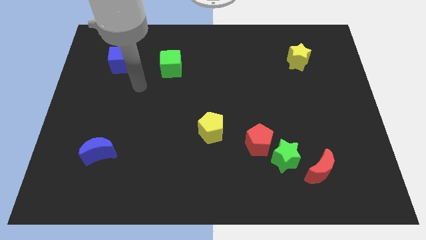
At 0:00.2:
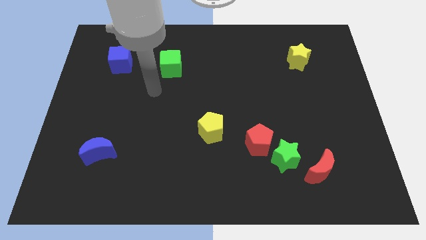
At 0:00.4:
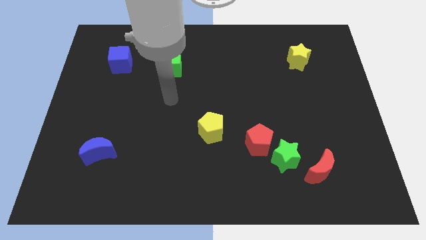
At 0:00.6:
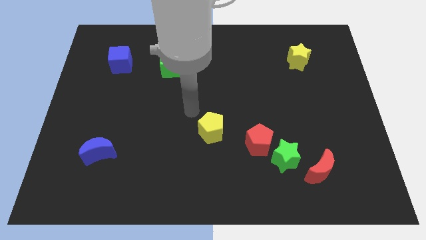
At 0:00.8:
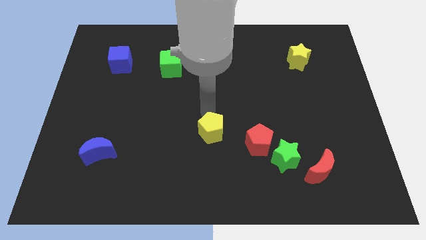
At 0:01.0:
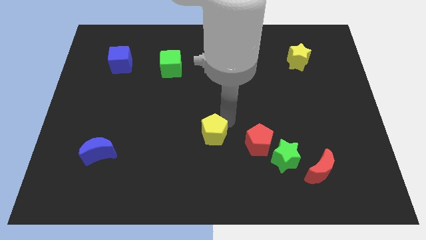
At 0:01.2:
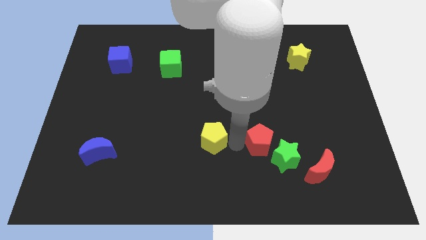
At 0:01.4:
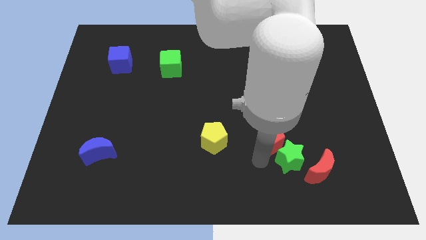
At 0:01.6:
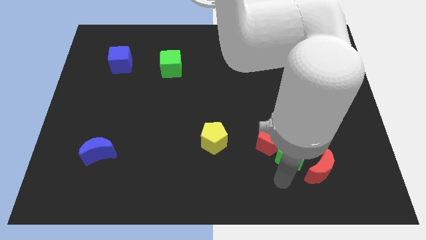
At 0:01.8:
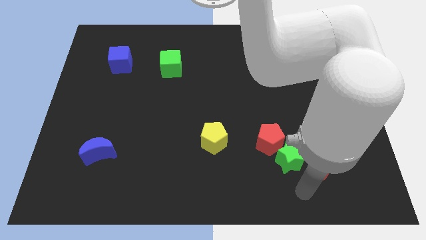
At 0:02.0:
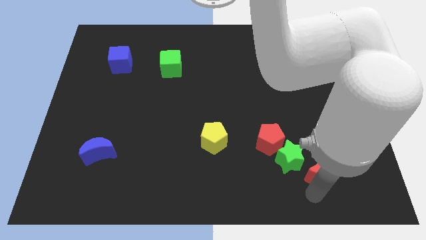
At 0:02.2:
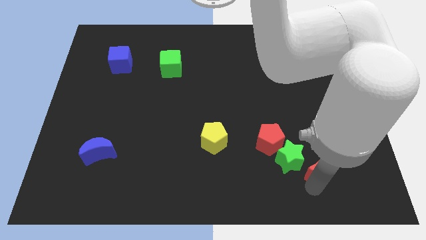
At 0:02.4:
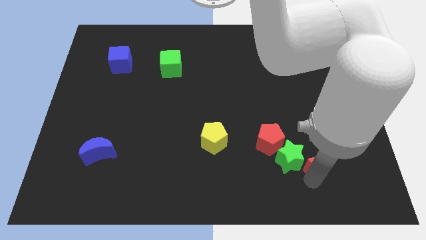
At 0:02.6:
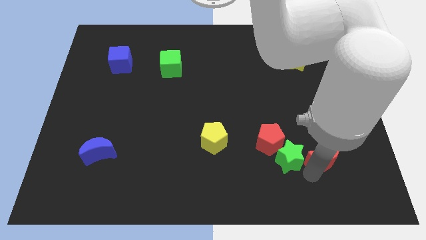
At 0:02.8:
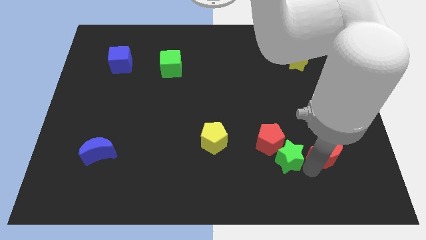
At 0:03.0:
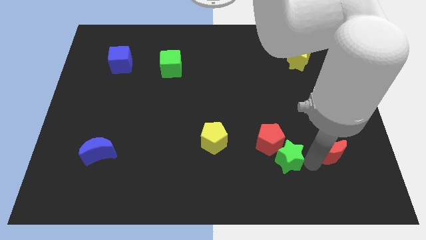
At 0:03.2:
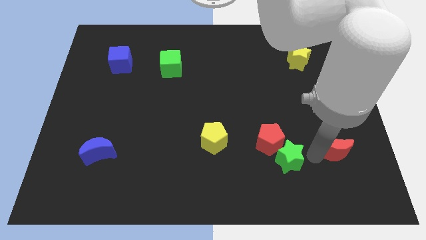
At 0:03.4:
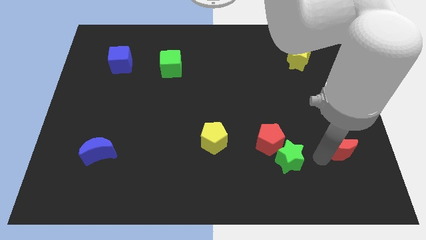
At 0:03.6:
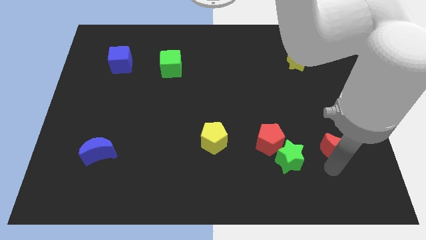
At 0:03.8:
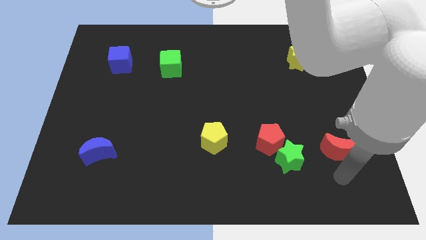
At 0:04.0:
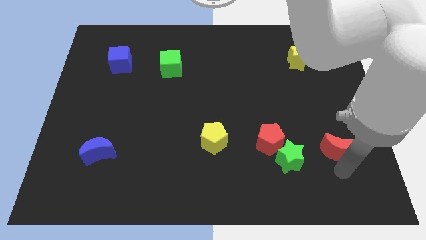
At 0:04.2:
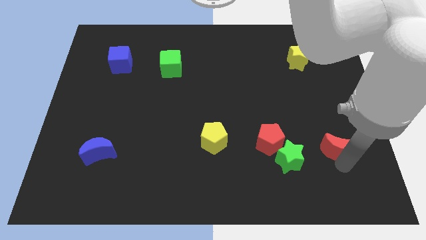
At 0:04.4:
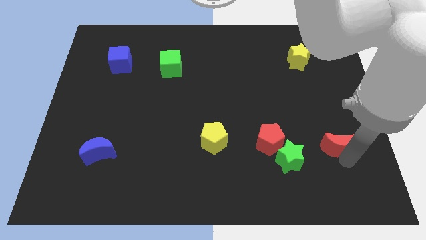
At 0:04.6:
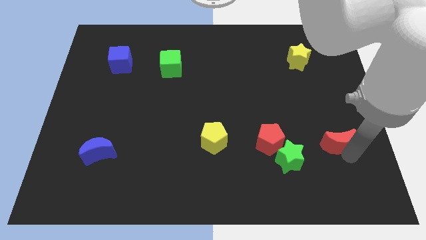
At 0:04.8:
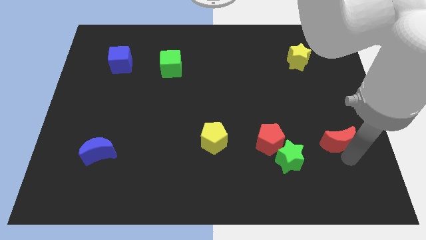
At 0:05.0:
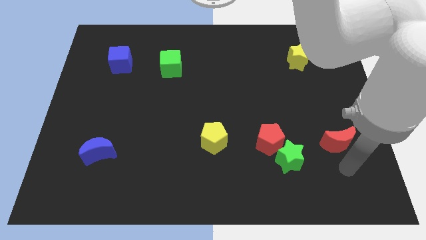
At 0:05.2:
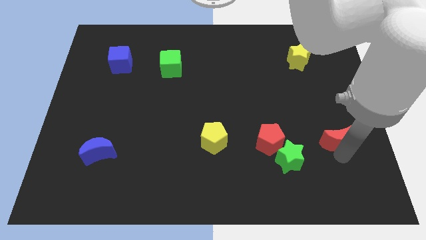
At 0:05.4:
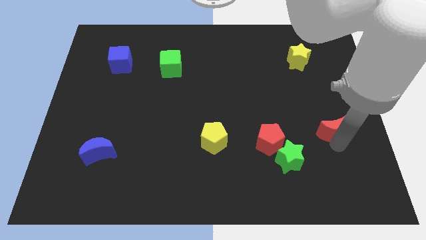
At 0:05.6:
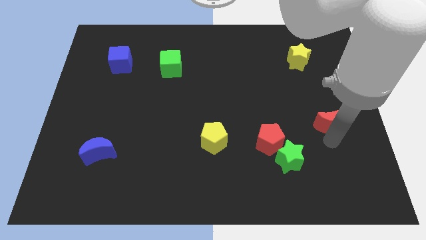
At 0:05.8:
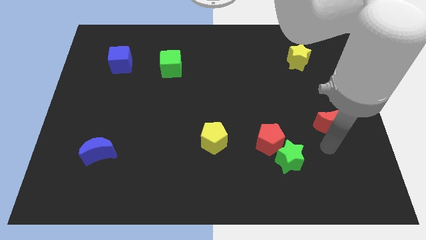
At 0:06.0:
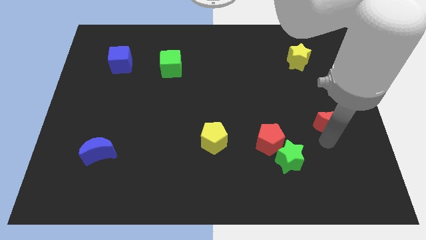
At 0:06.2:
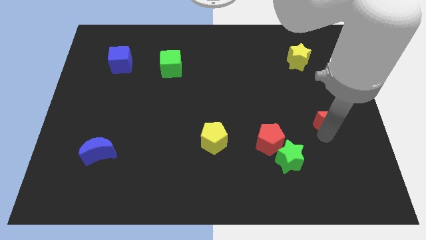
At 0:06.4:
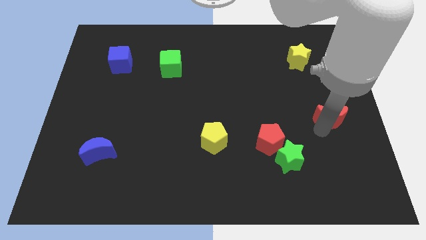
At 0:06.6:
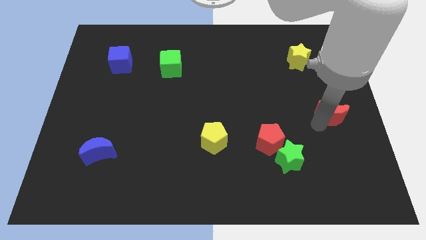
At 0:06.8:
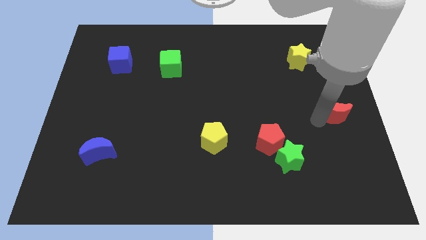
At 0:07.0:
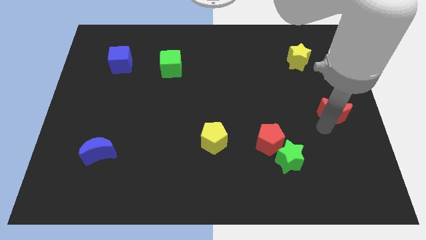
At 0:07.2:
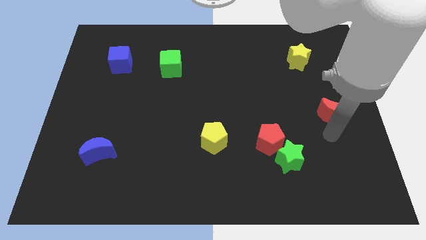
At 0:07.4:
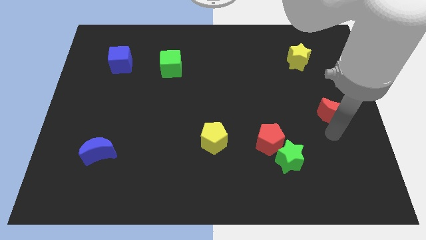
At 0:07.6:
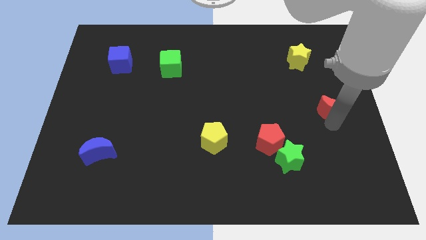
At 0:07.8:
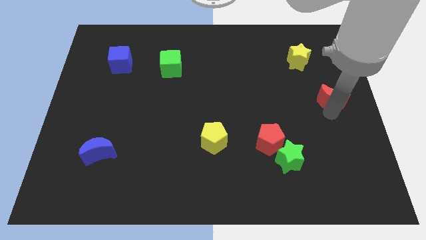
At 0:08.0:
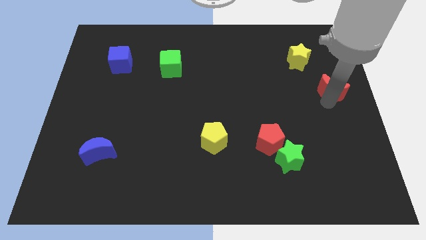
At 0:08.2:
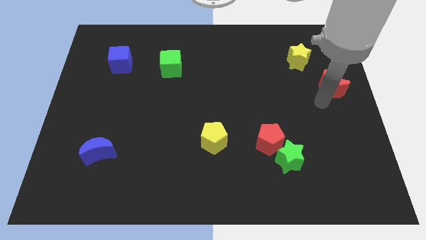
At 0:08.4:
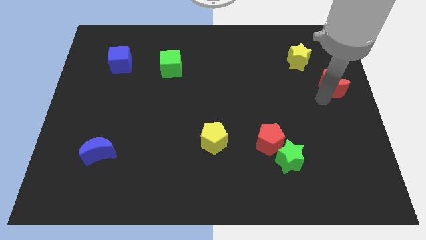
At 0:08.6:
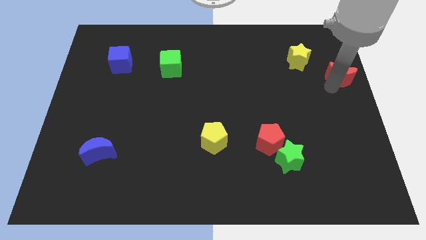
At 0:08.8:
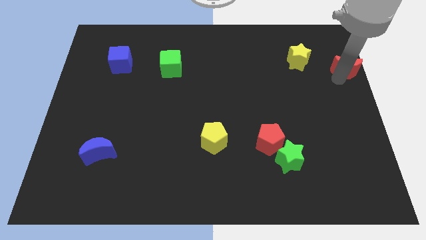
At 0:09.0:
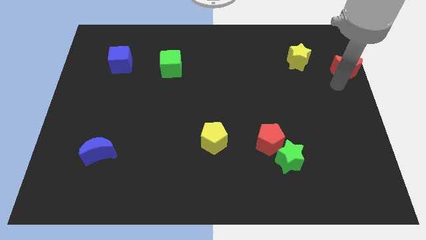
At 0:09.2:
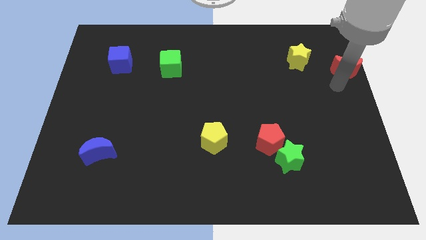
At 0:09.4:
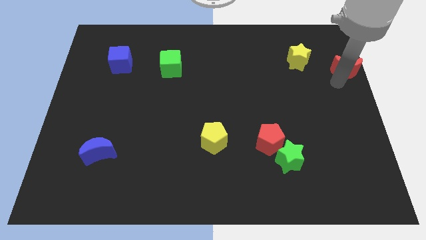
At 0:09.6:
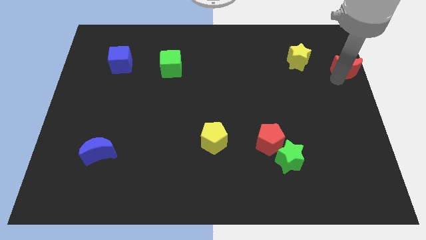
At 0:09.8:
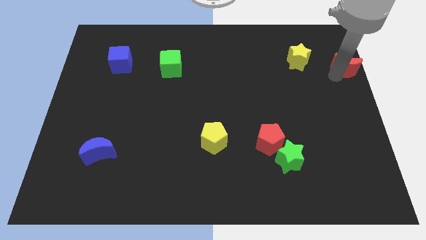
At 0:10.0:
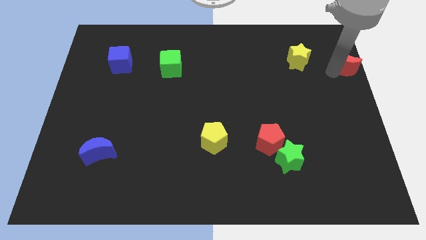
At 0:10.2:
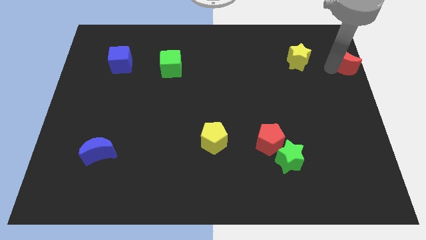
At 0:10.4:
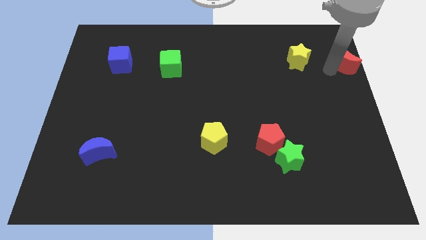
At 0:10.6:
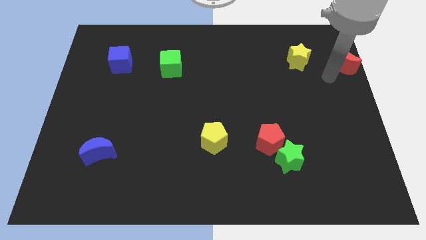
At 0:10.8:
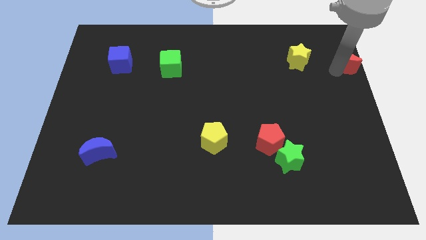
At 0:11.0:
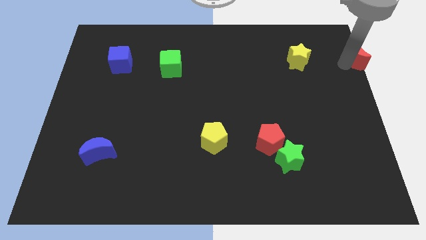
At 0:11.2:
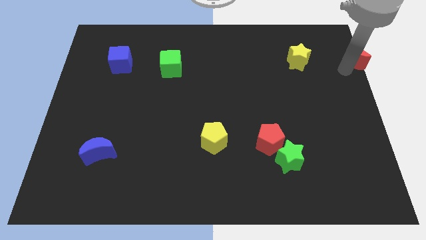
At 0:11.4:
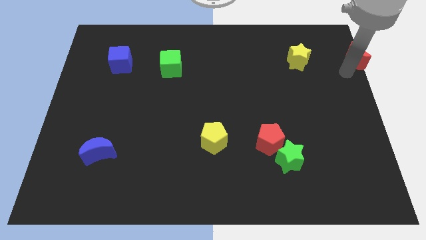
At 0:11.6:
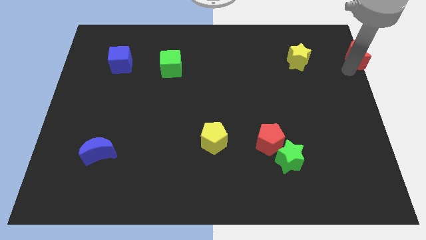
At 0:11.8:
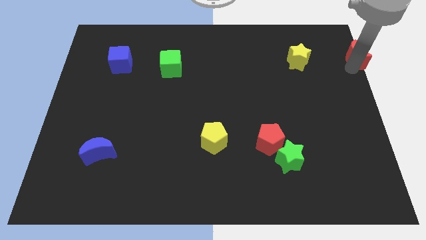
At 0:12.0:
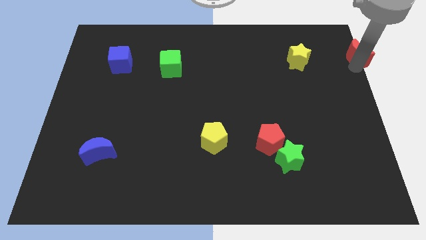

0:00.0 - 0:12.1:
put the red moon to the top right corner
